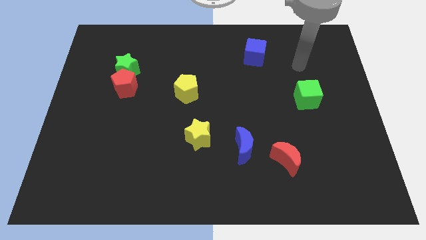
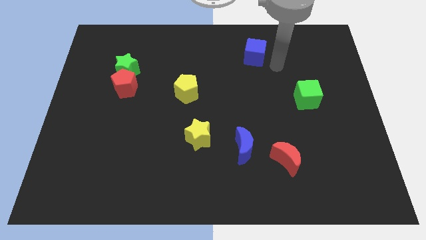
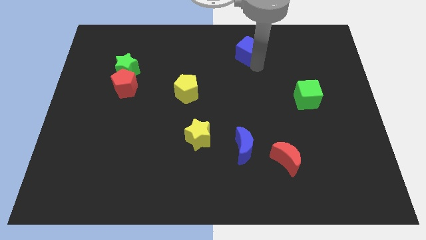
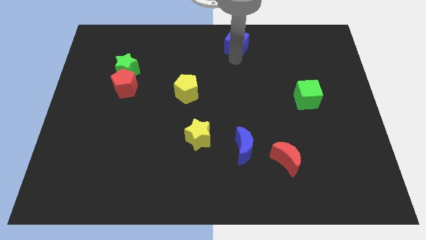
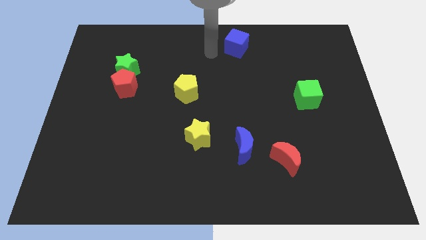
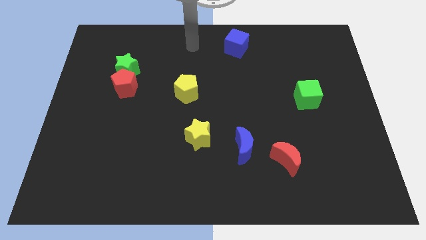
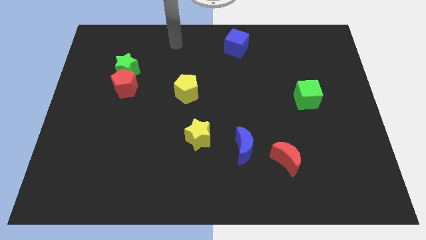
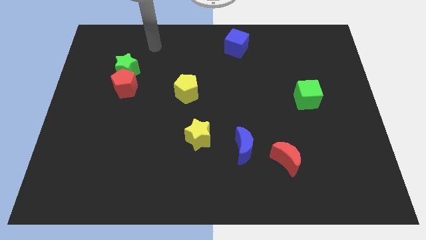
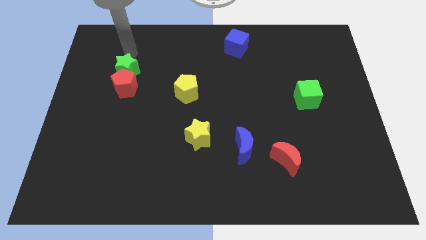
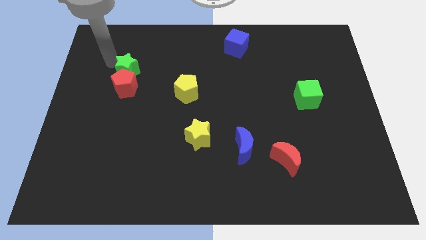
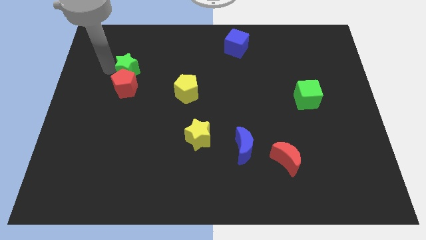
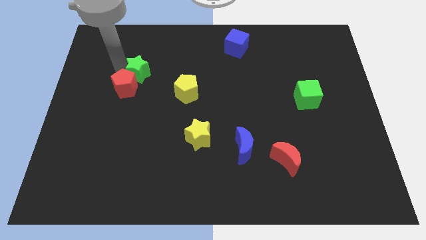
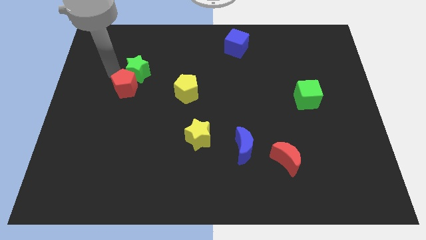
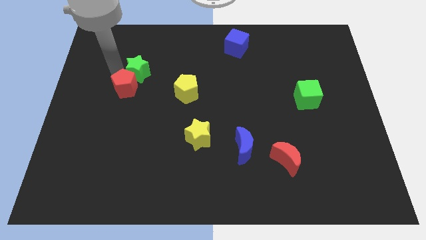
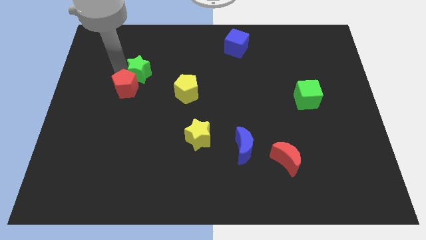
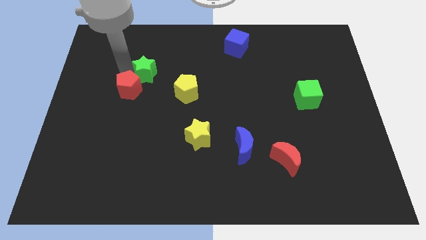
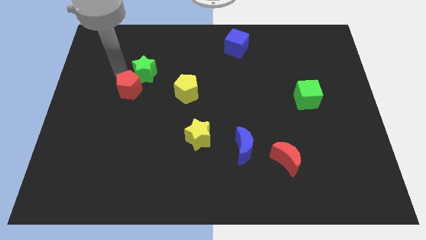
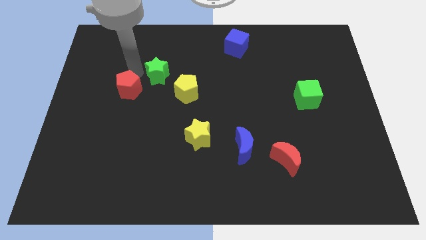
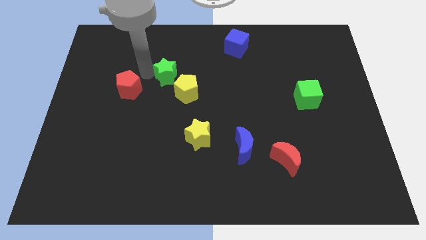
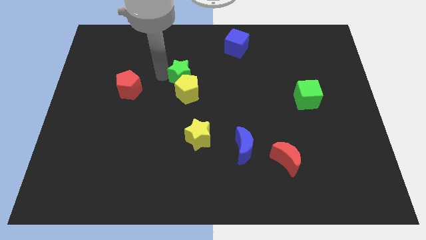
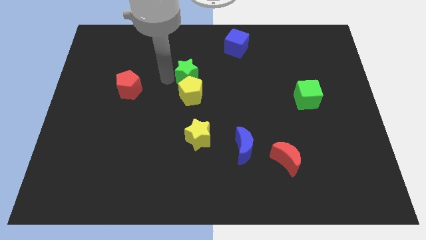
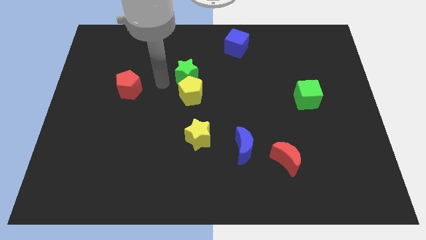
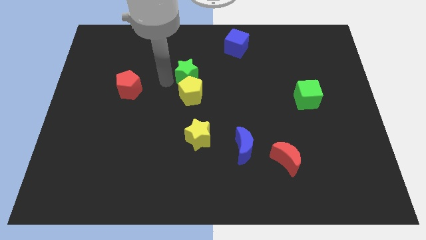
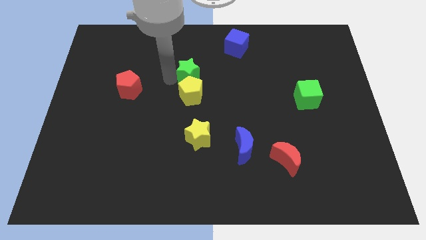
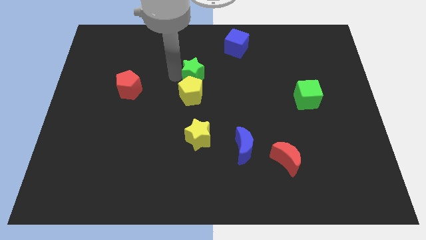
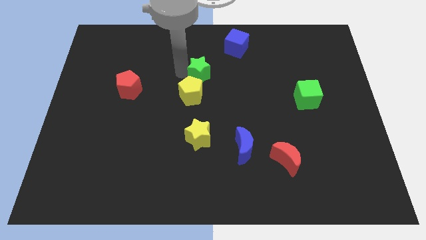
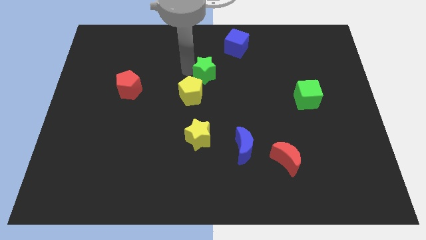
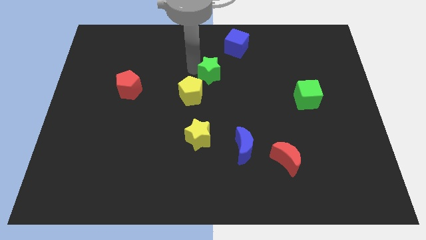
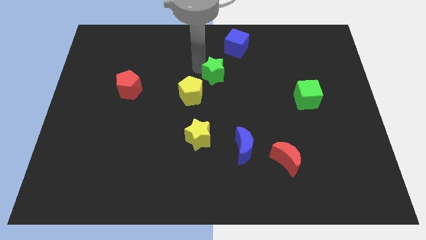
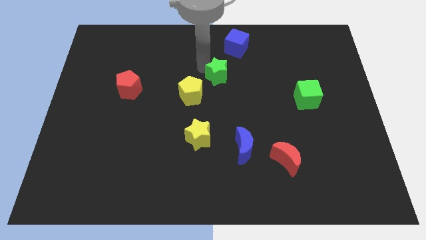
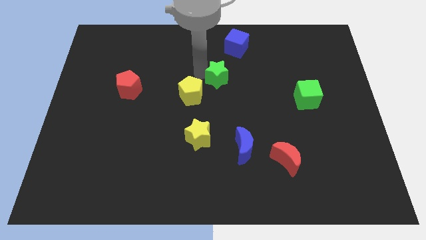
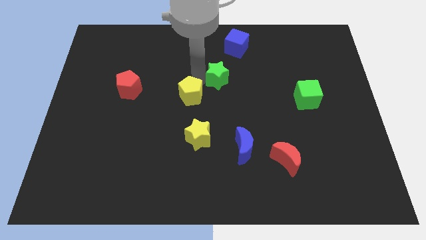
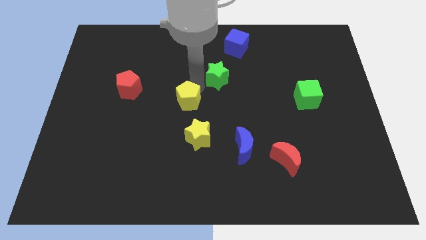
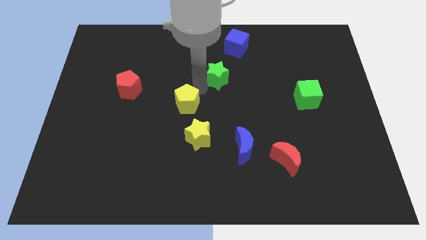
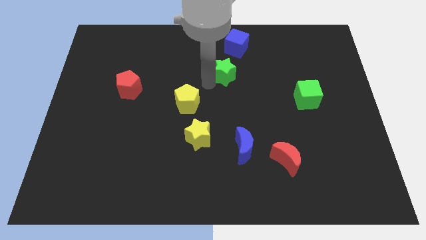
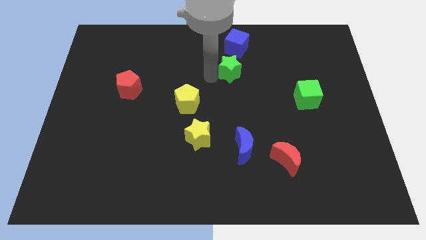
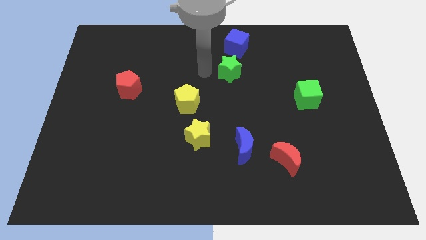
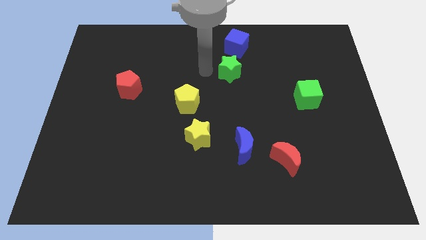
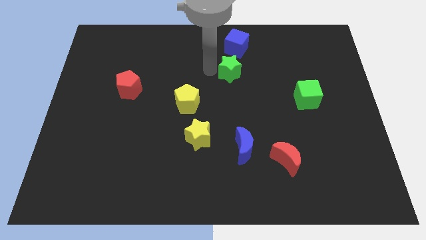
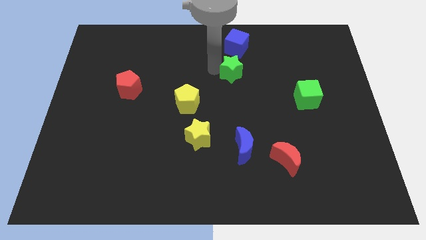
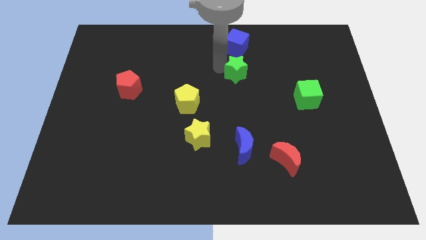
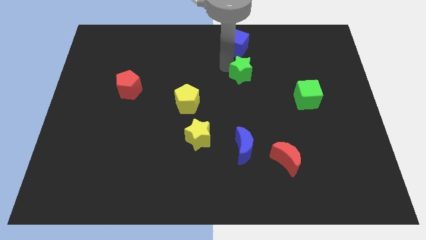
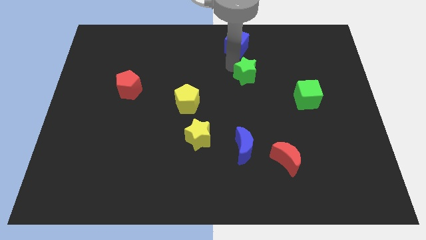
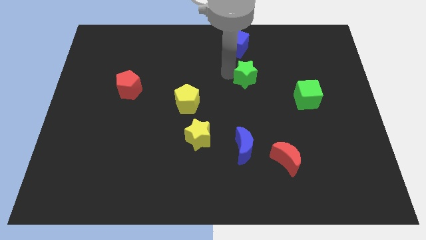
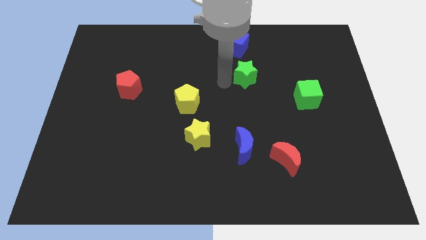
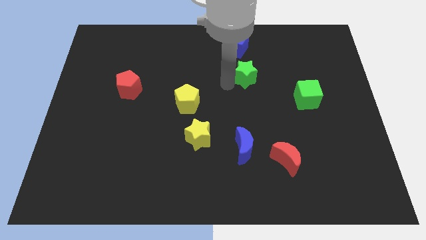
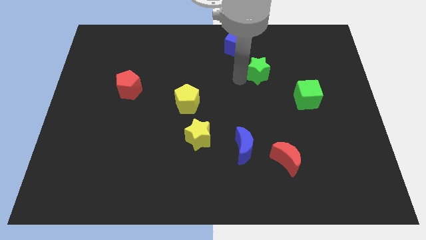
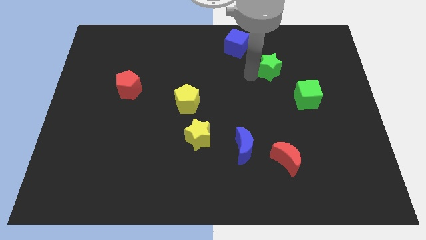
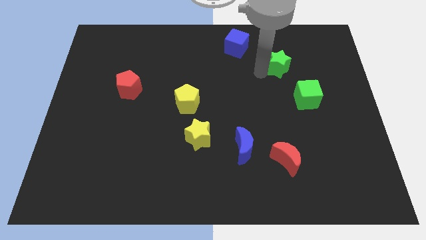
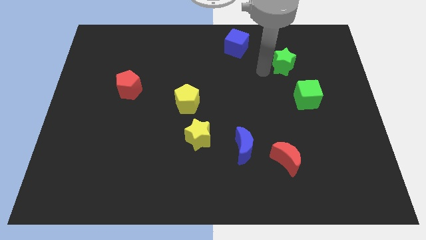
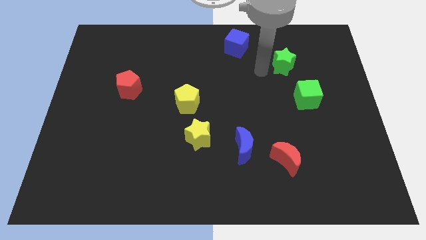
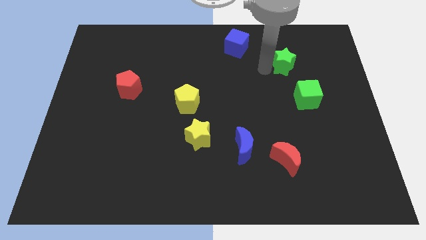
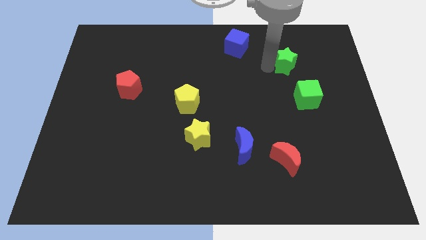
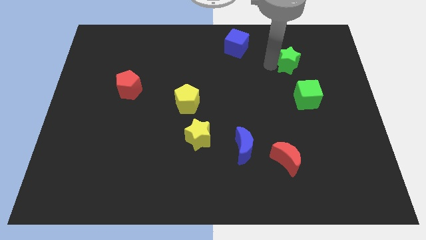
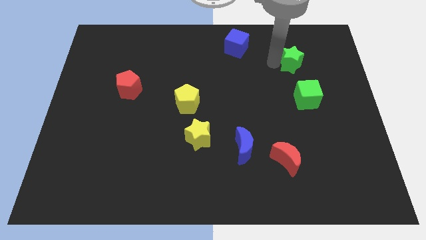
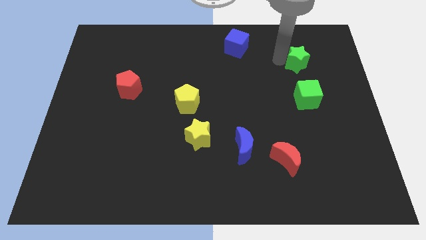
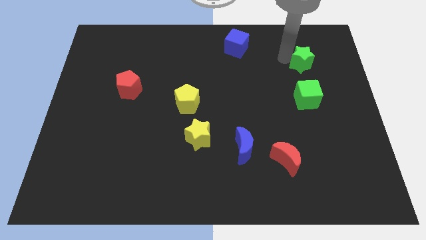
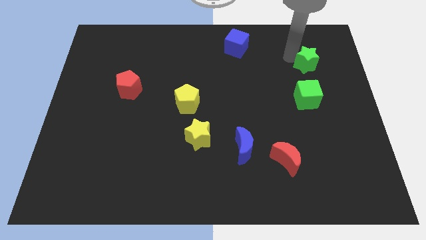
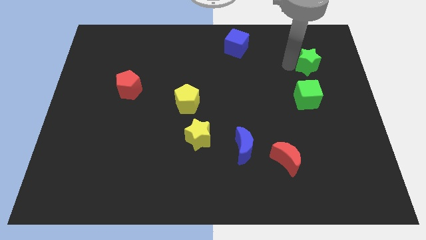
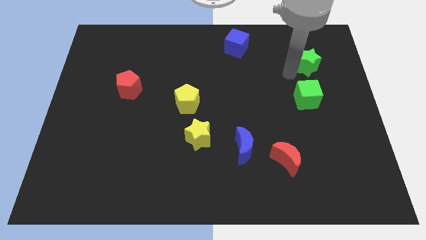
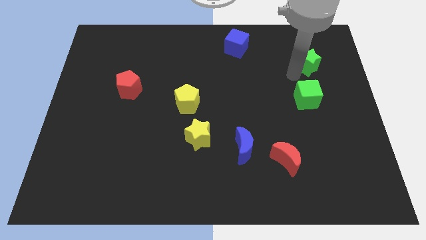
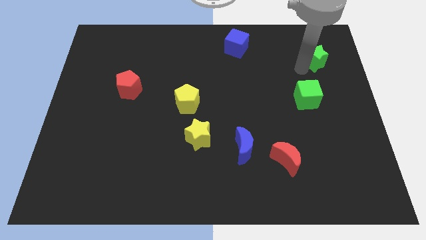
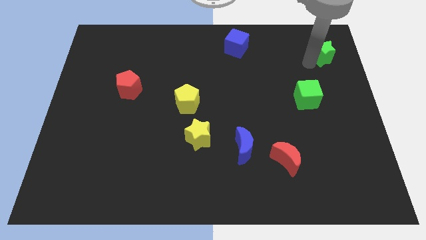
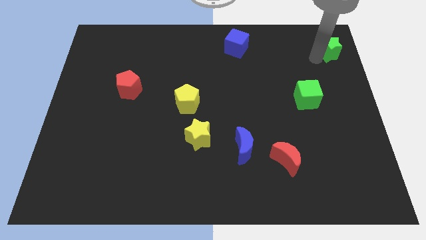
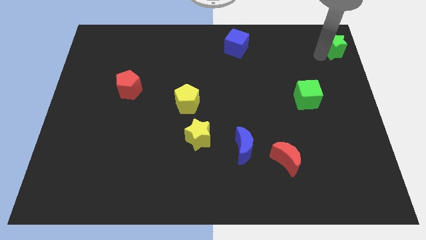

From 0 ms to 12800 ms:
push the green star to the top right of the board

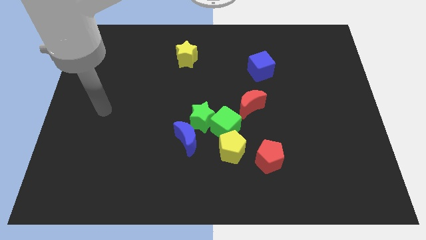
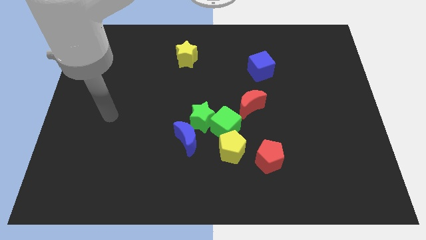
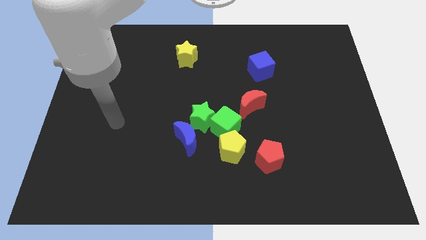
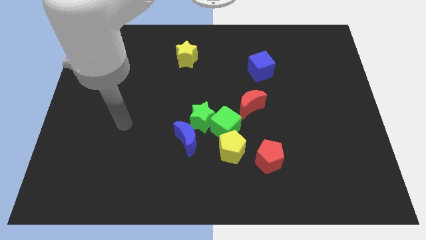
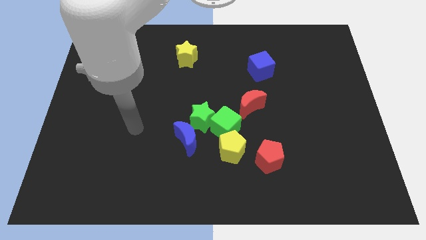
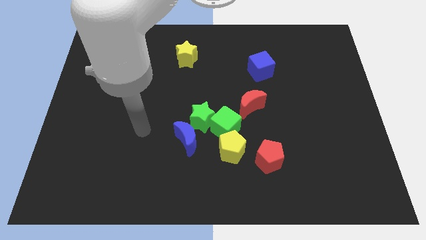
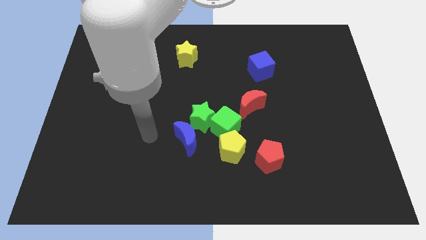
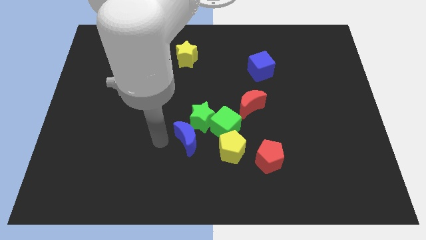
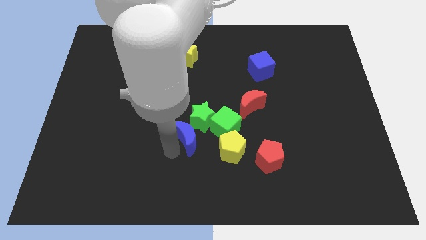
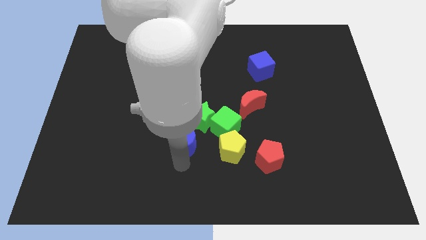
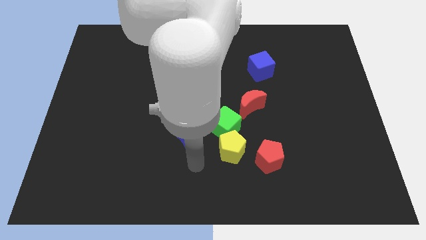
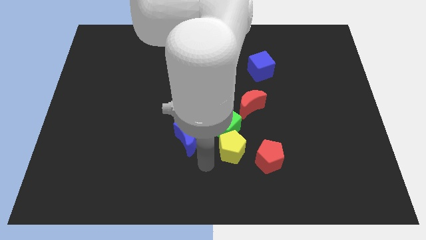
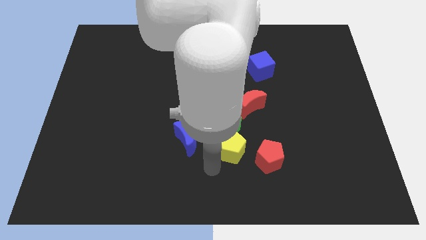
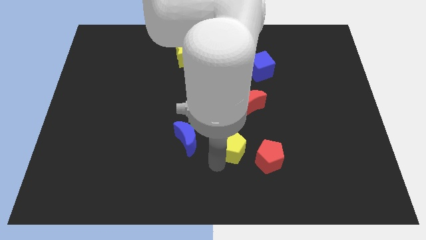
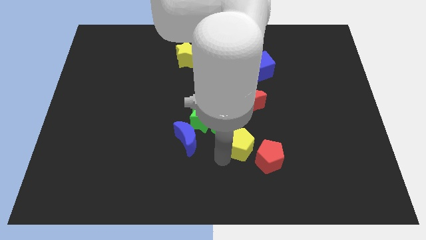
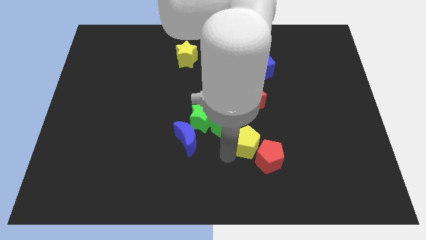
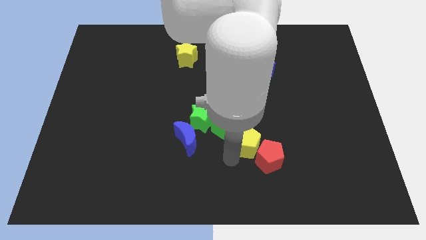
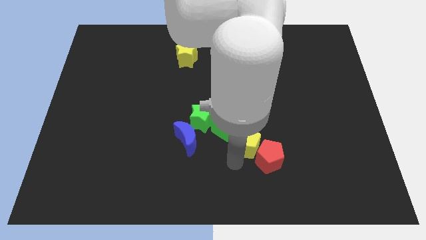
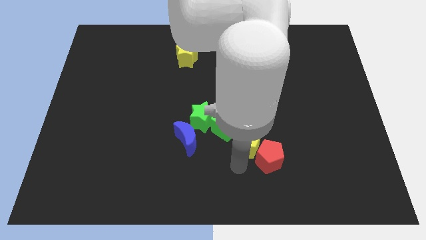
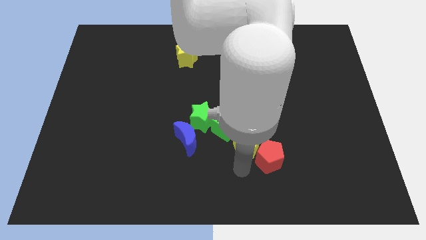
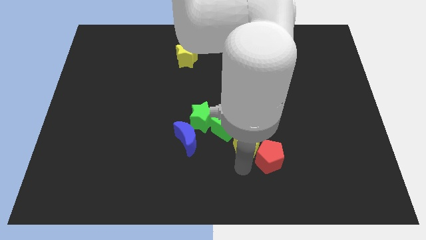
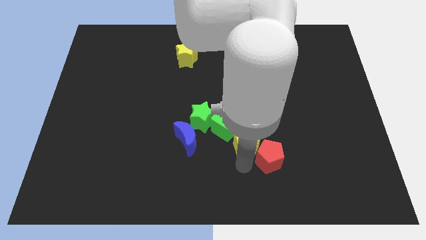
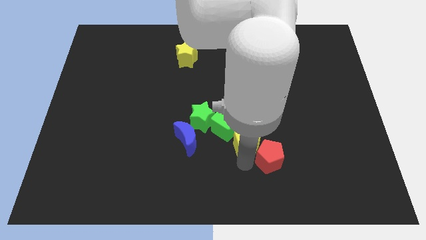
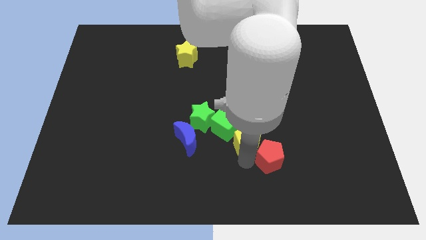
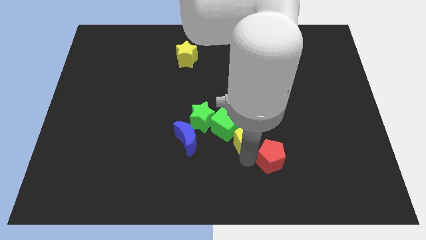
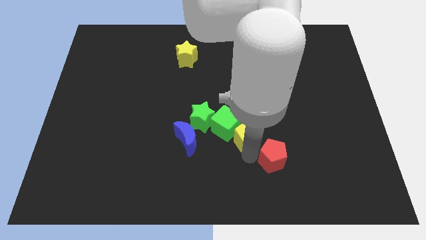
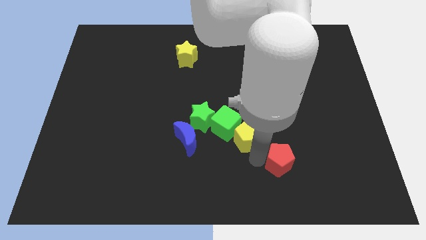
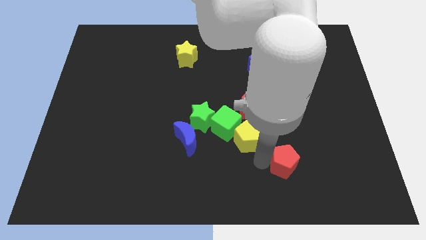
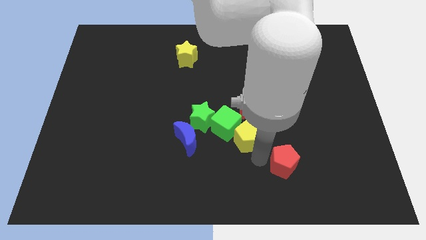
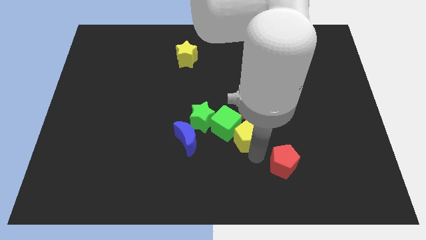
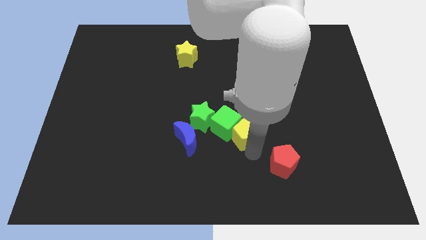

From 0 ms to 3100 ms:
slide the yellow pentagon to the middle of the board
